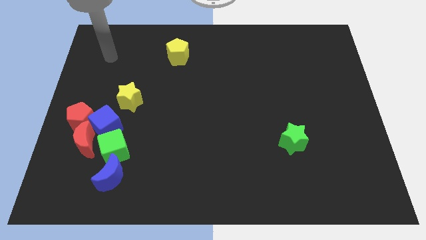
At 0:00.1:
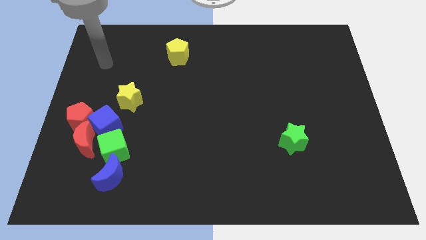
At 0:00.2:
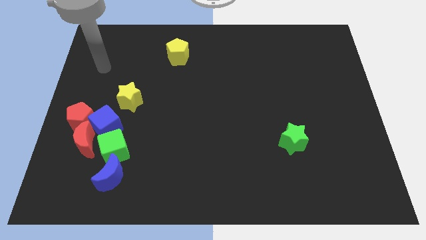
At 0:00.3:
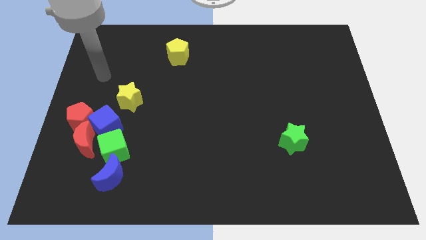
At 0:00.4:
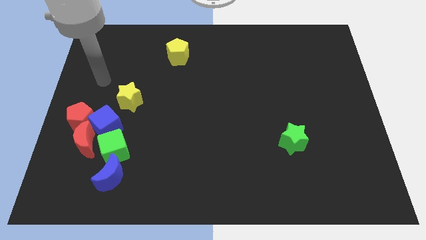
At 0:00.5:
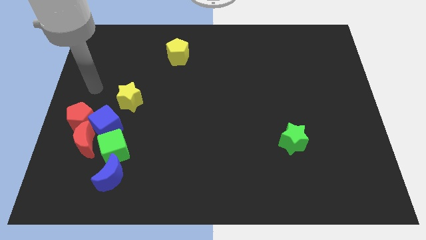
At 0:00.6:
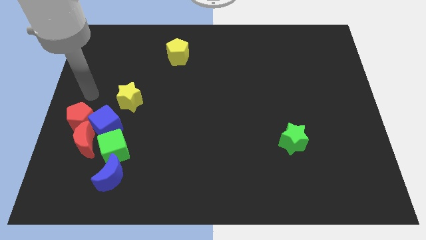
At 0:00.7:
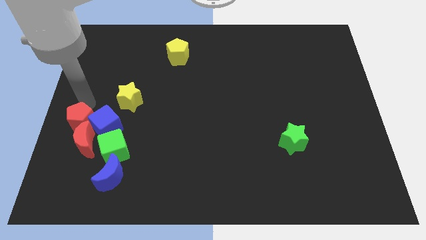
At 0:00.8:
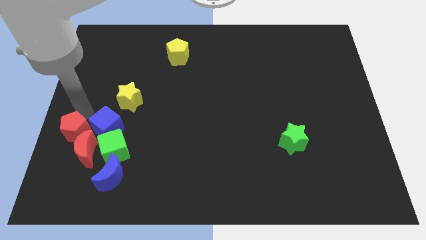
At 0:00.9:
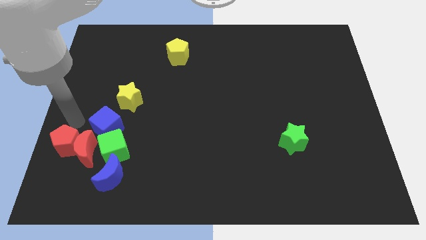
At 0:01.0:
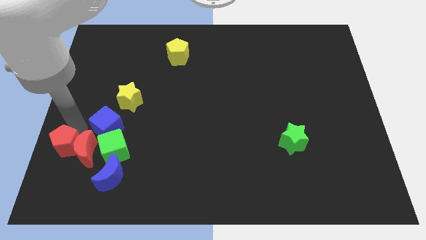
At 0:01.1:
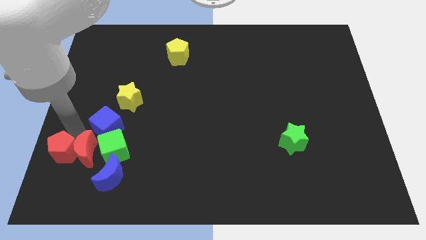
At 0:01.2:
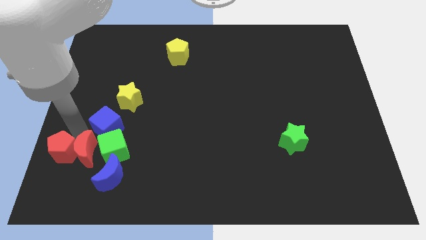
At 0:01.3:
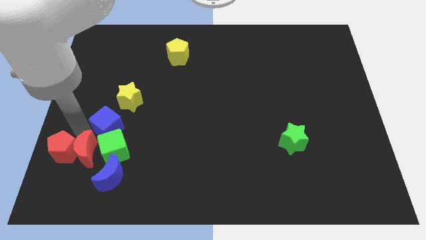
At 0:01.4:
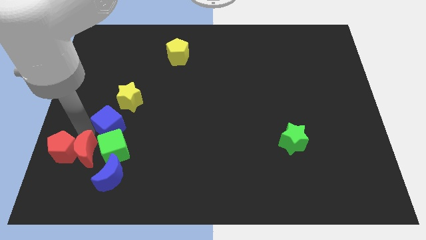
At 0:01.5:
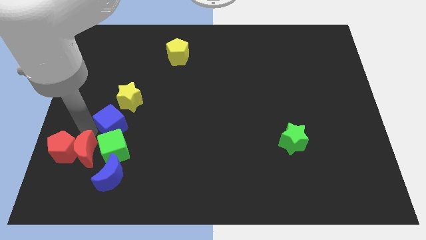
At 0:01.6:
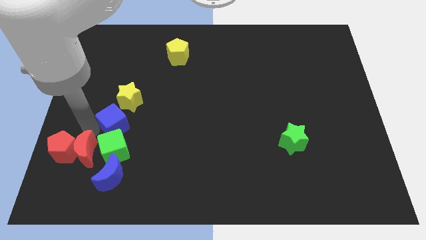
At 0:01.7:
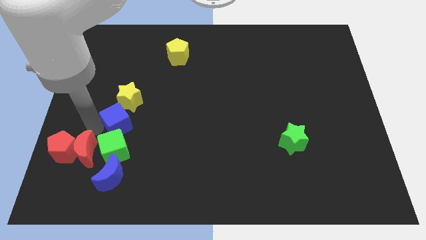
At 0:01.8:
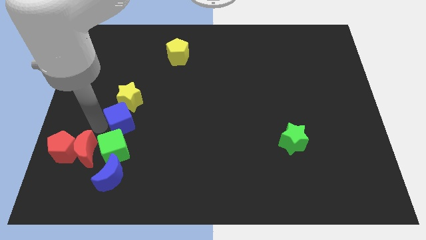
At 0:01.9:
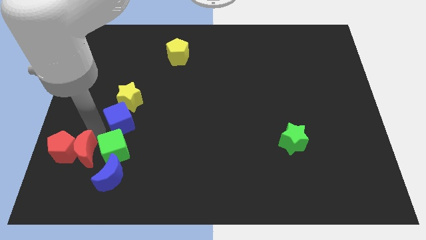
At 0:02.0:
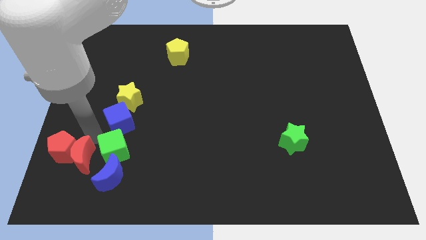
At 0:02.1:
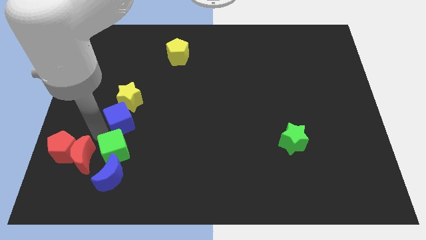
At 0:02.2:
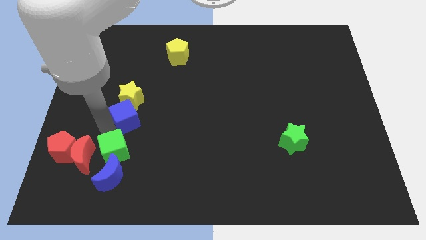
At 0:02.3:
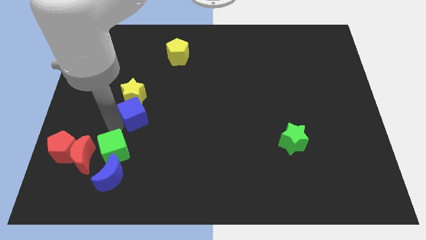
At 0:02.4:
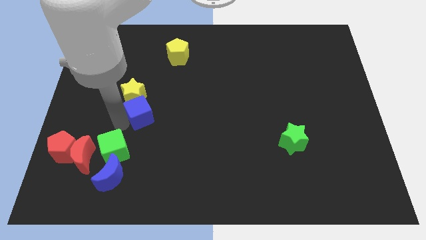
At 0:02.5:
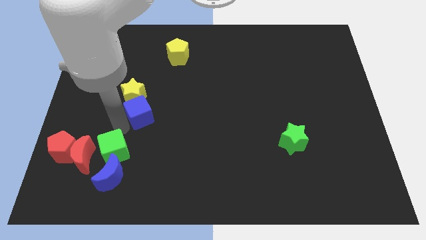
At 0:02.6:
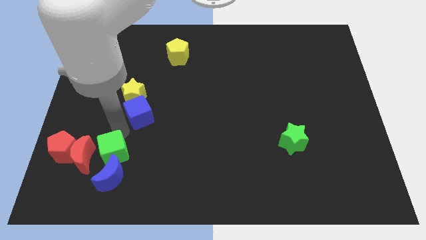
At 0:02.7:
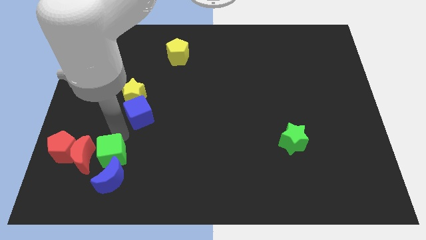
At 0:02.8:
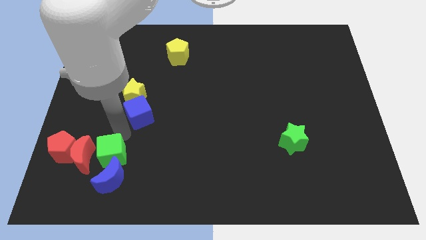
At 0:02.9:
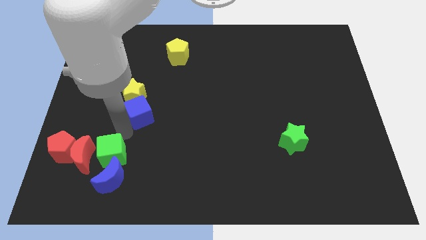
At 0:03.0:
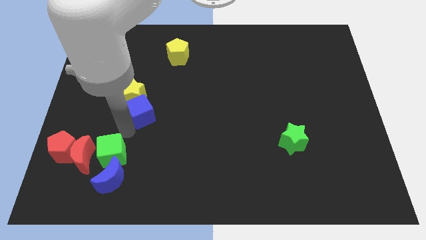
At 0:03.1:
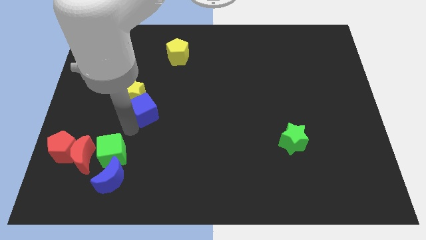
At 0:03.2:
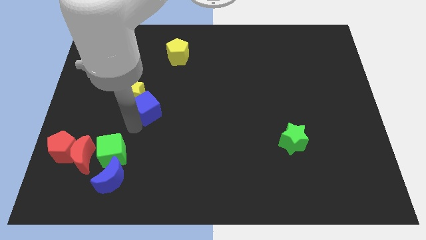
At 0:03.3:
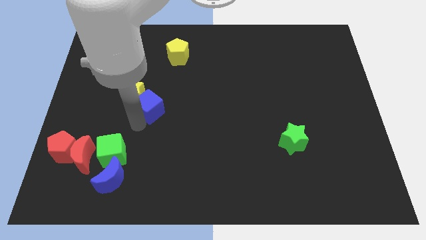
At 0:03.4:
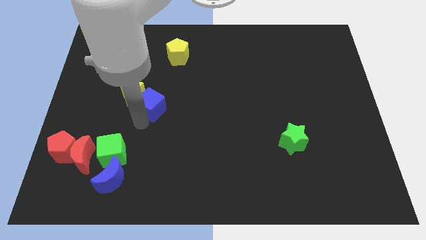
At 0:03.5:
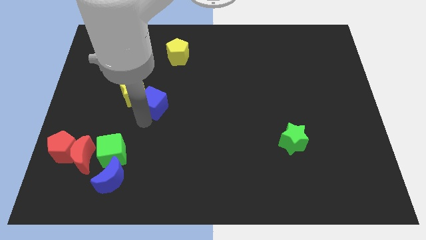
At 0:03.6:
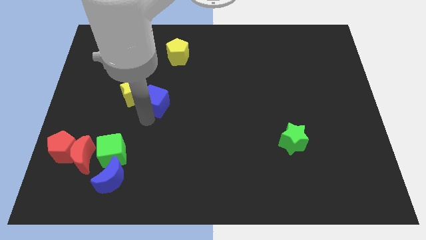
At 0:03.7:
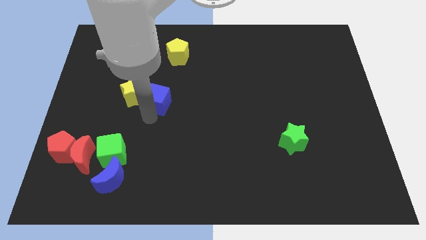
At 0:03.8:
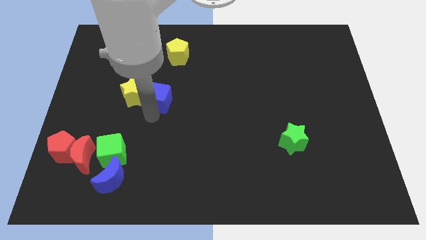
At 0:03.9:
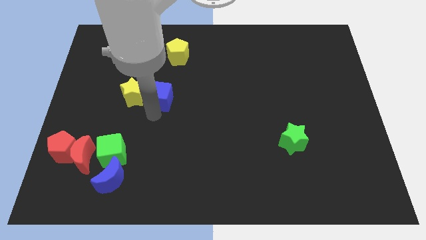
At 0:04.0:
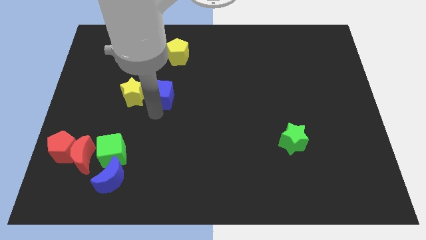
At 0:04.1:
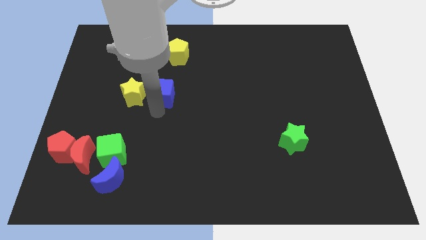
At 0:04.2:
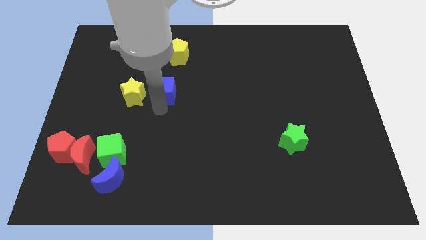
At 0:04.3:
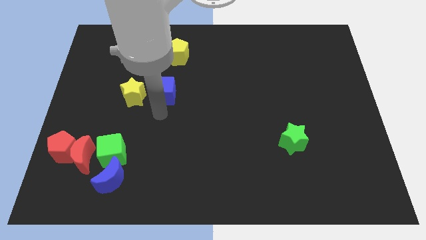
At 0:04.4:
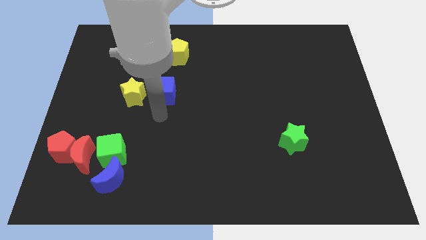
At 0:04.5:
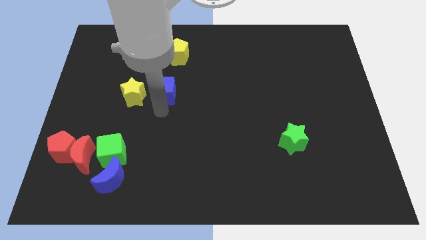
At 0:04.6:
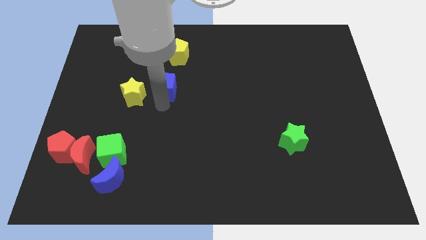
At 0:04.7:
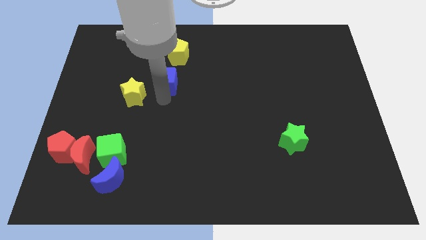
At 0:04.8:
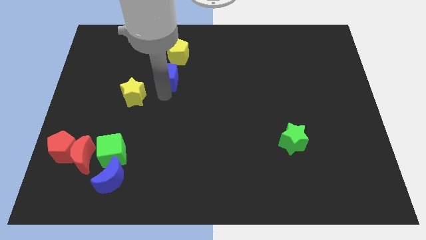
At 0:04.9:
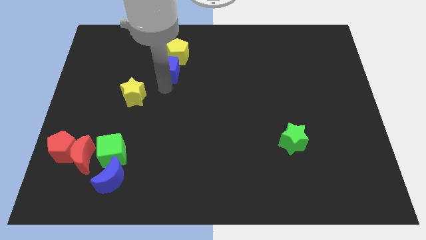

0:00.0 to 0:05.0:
move the blue cube next to the yellow pentagon

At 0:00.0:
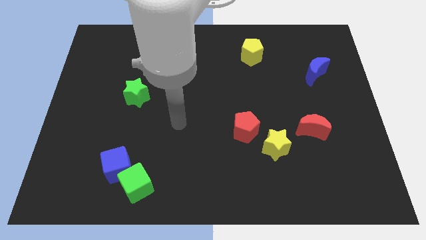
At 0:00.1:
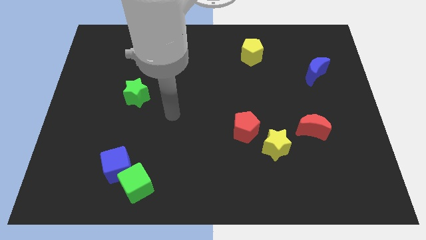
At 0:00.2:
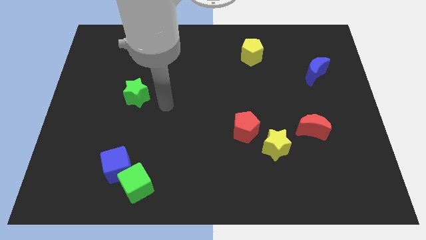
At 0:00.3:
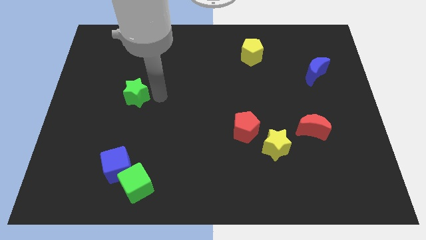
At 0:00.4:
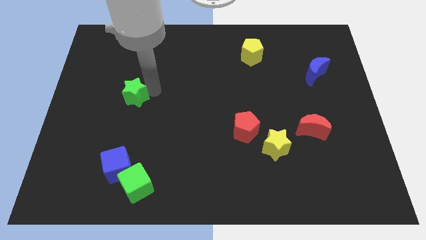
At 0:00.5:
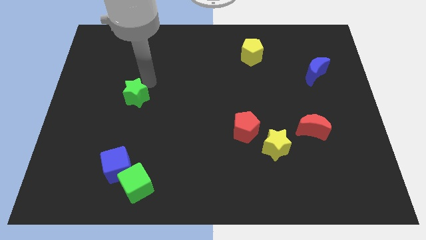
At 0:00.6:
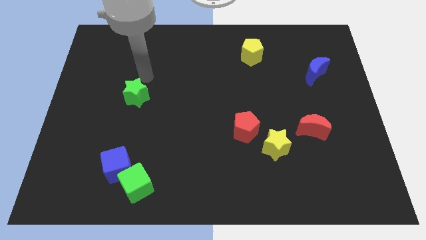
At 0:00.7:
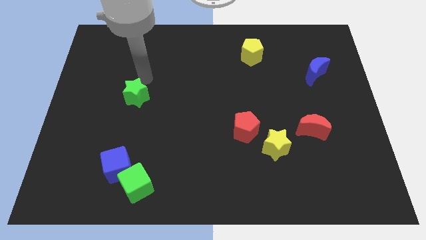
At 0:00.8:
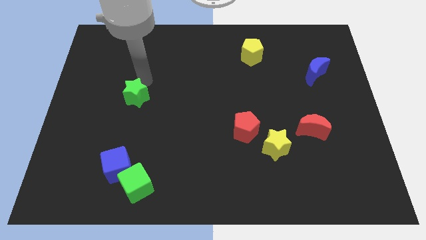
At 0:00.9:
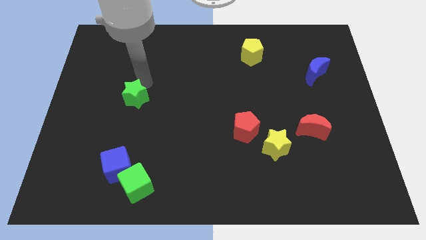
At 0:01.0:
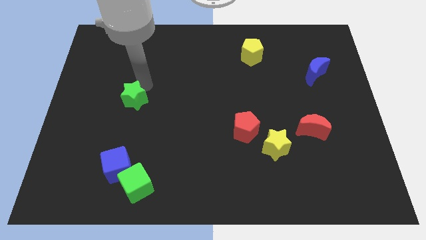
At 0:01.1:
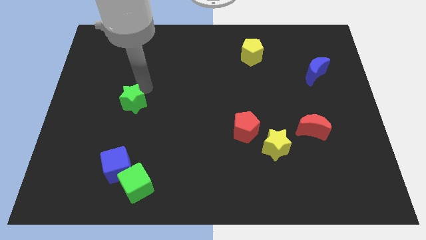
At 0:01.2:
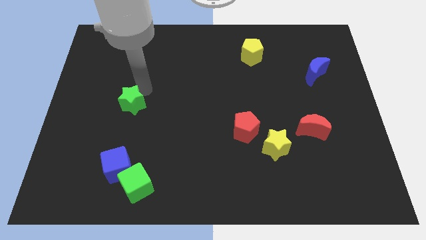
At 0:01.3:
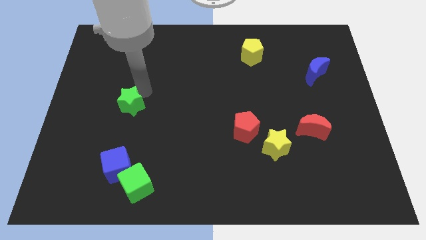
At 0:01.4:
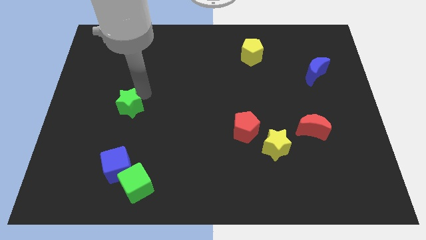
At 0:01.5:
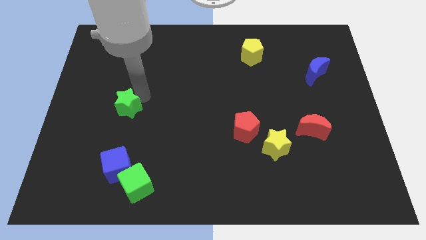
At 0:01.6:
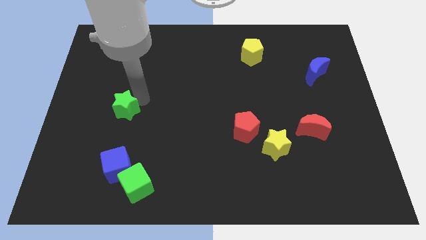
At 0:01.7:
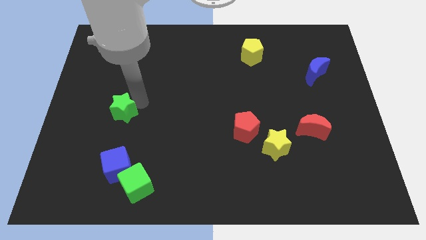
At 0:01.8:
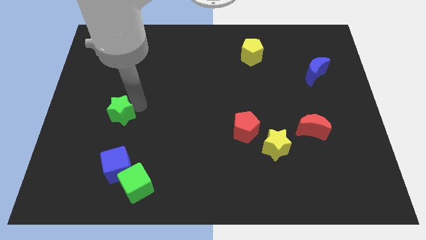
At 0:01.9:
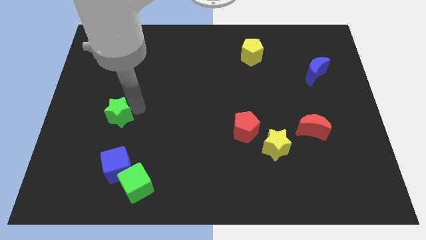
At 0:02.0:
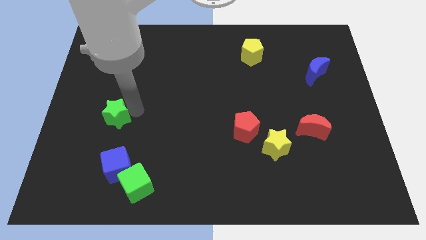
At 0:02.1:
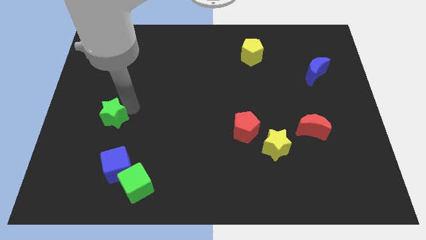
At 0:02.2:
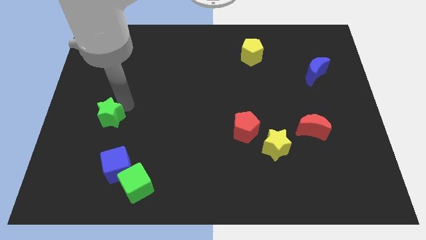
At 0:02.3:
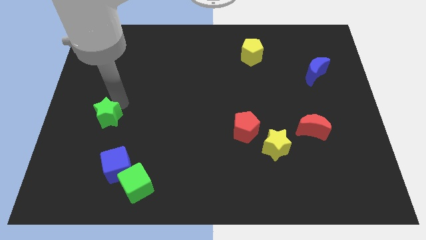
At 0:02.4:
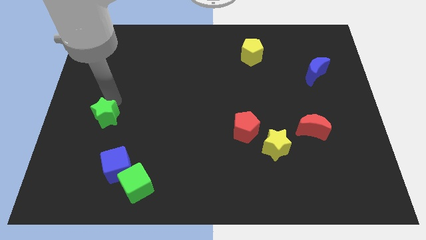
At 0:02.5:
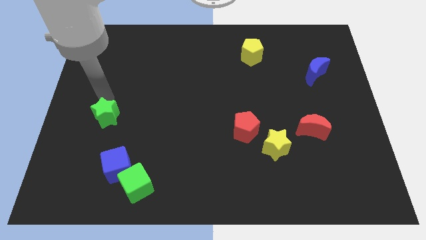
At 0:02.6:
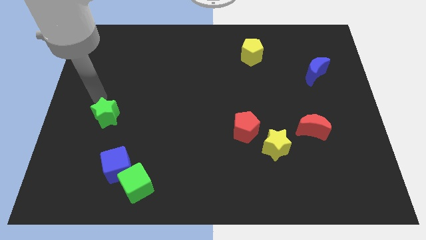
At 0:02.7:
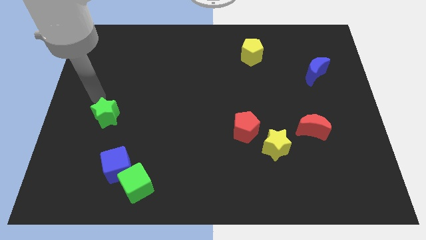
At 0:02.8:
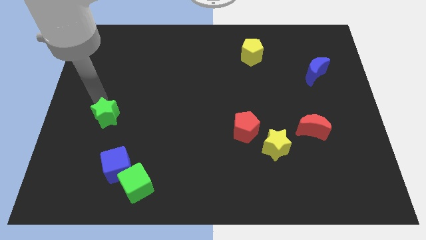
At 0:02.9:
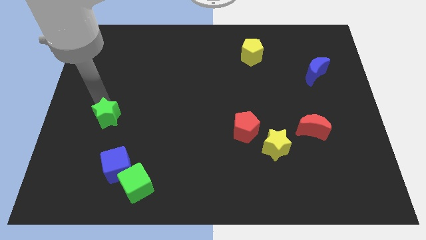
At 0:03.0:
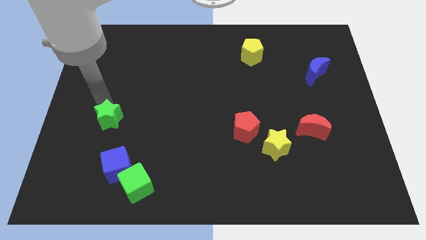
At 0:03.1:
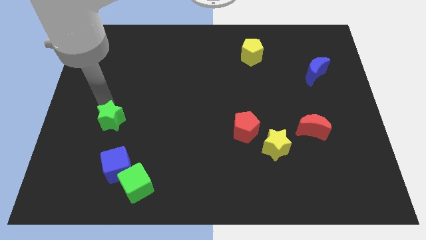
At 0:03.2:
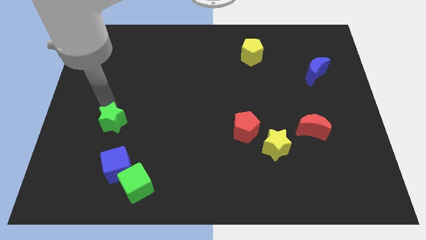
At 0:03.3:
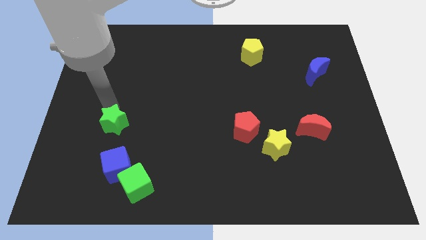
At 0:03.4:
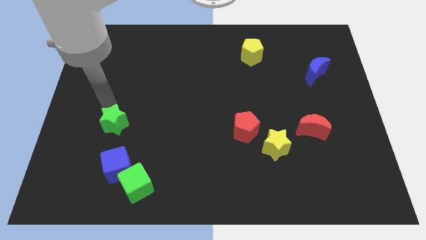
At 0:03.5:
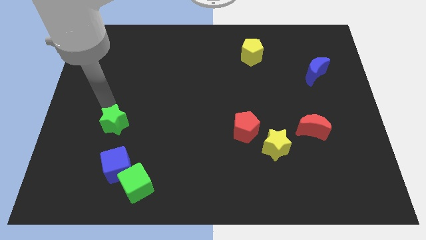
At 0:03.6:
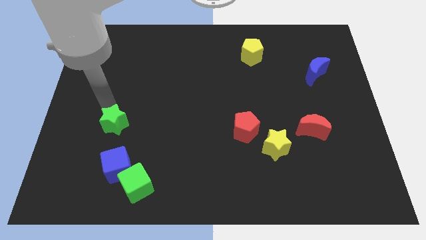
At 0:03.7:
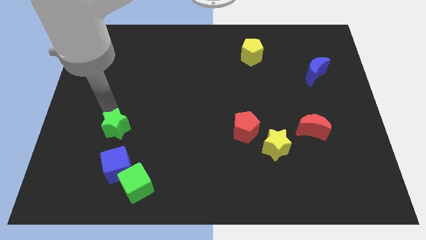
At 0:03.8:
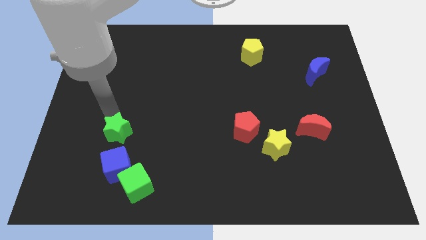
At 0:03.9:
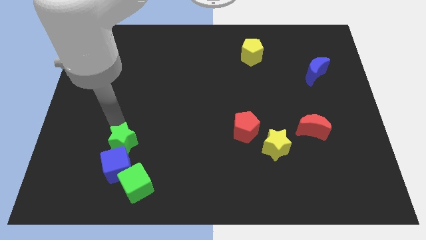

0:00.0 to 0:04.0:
push the green star to the blue cube
